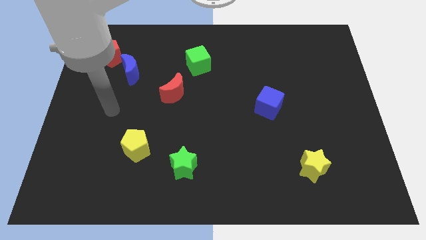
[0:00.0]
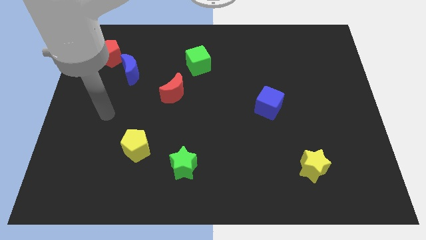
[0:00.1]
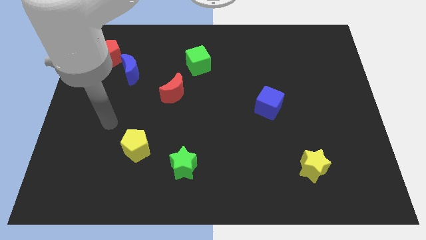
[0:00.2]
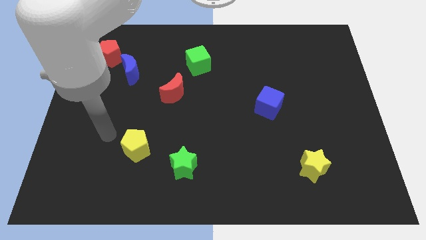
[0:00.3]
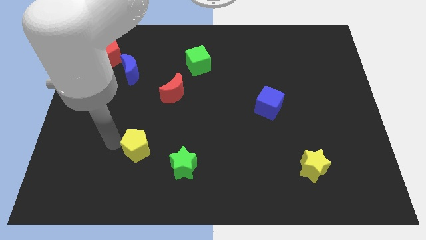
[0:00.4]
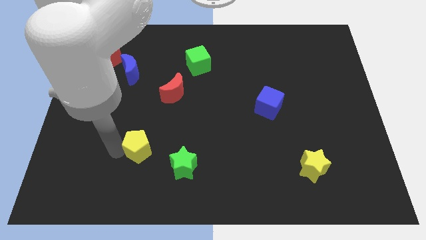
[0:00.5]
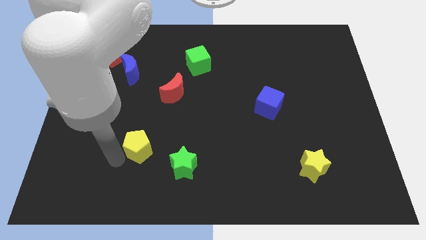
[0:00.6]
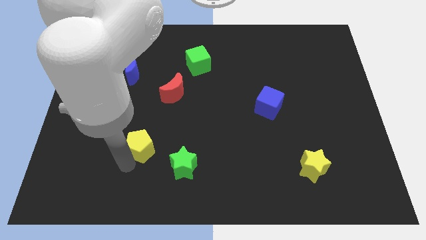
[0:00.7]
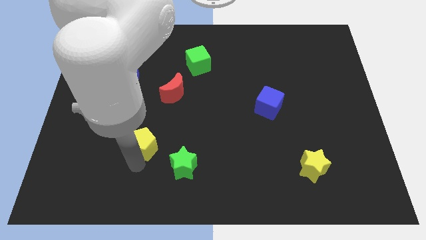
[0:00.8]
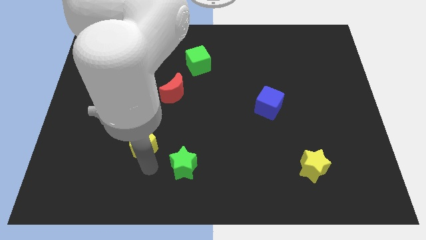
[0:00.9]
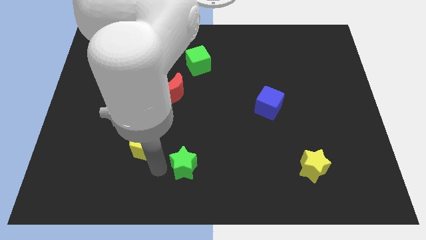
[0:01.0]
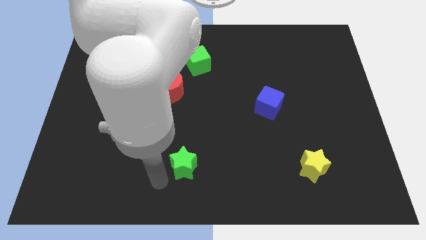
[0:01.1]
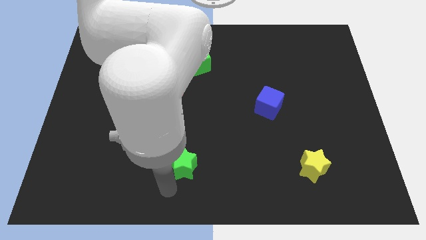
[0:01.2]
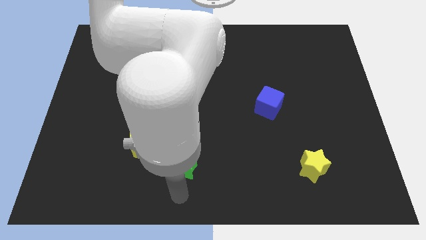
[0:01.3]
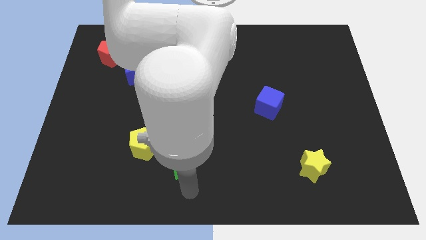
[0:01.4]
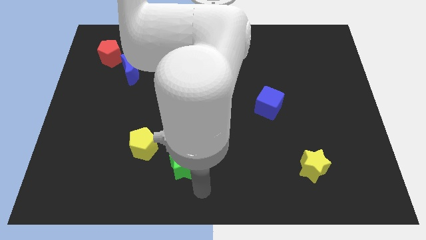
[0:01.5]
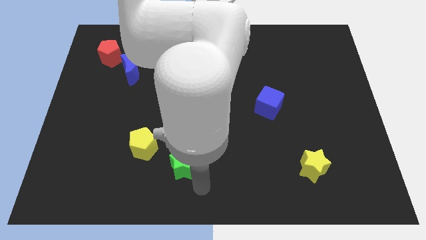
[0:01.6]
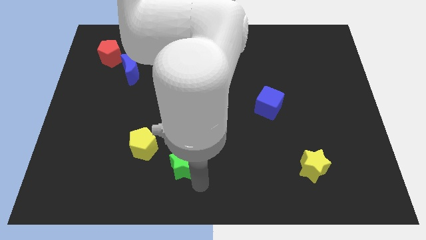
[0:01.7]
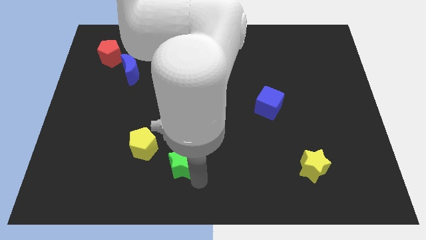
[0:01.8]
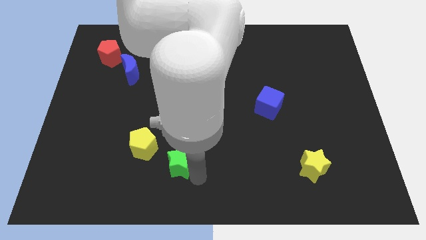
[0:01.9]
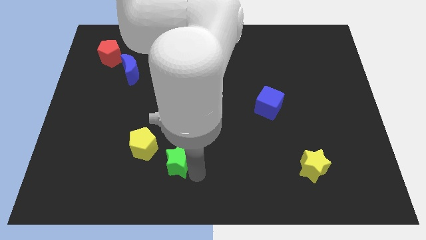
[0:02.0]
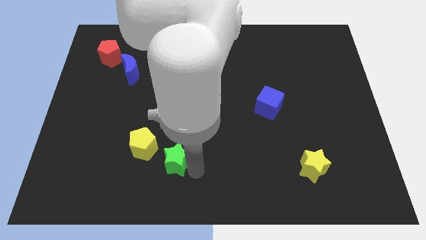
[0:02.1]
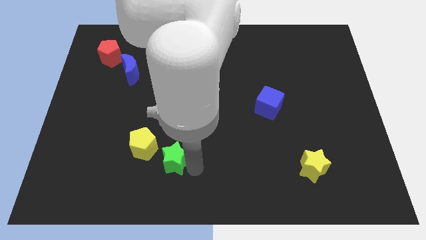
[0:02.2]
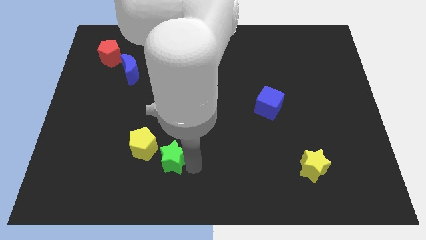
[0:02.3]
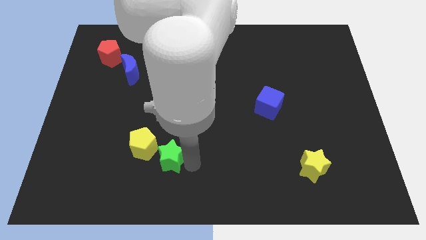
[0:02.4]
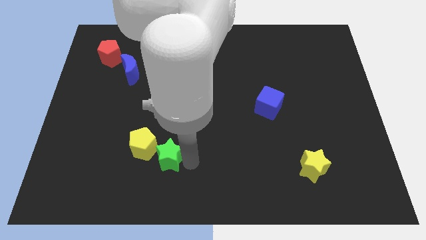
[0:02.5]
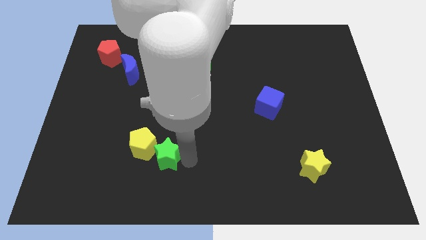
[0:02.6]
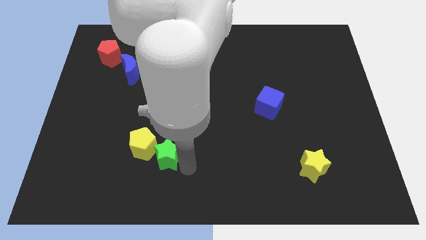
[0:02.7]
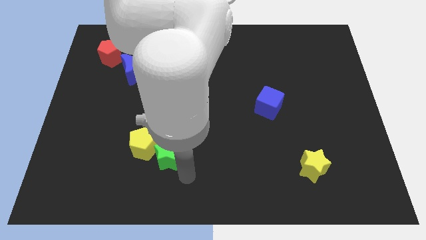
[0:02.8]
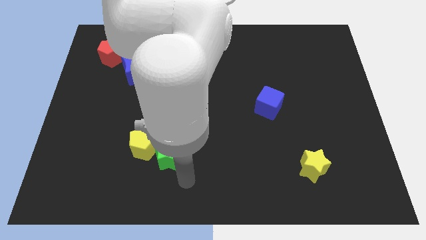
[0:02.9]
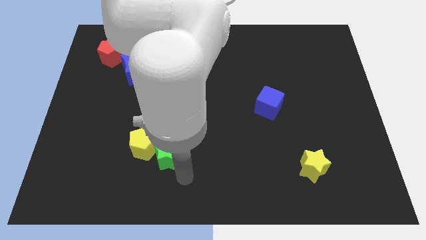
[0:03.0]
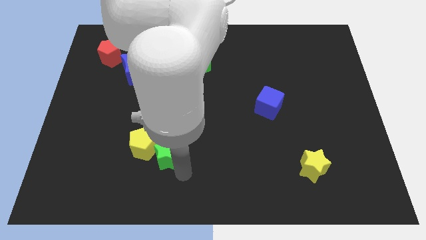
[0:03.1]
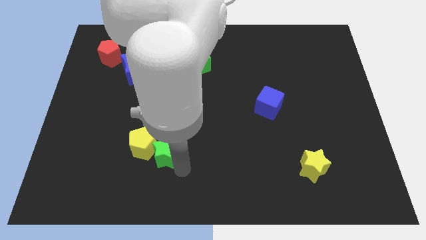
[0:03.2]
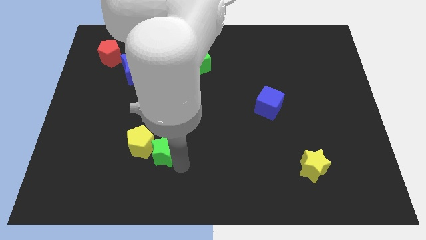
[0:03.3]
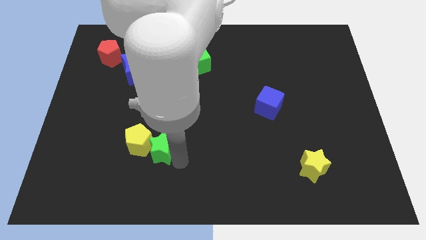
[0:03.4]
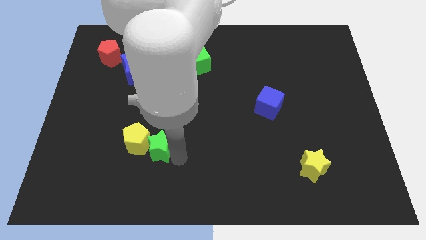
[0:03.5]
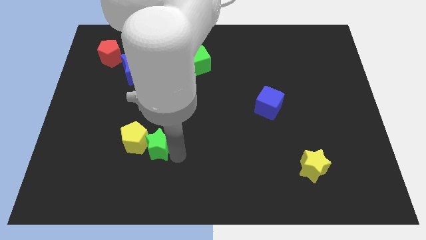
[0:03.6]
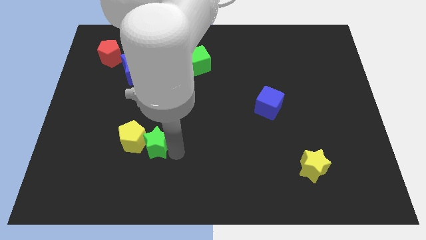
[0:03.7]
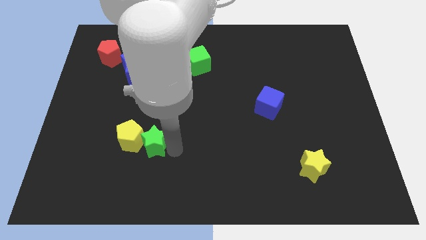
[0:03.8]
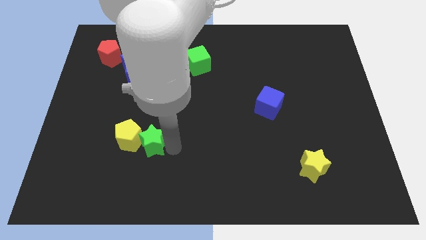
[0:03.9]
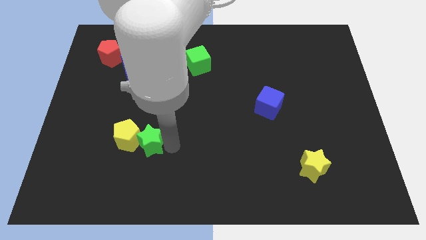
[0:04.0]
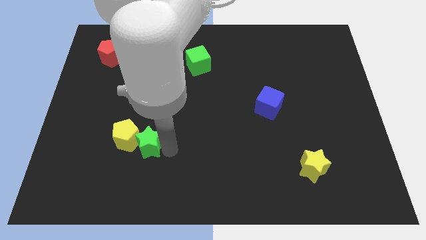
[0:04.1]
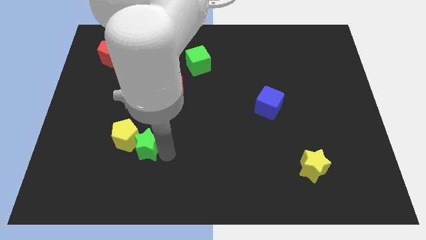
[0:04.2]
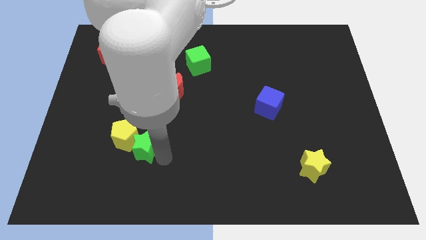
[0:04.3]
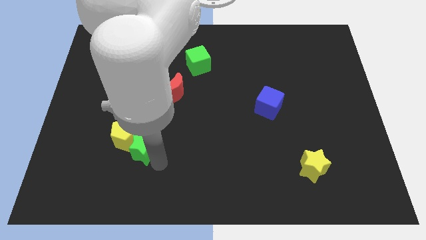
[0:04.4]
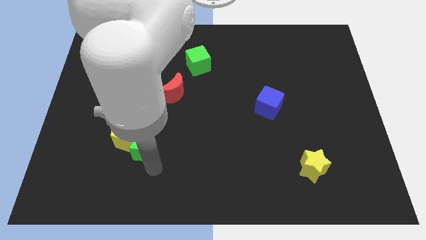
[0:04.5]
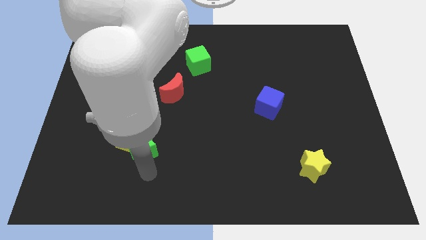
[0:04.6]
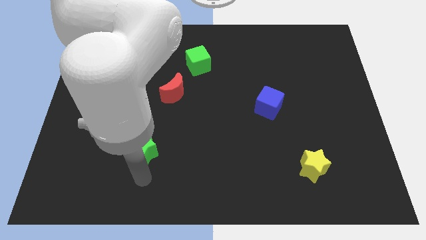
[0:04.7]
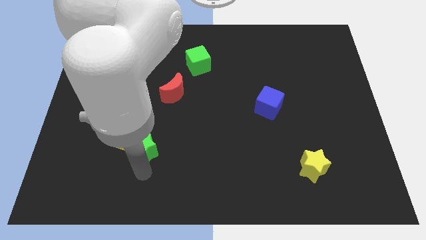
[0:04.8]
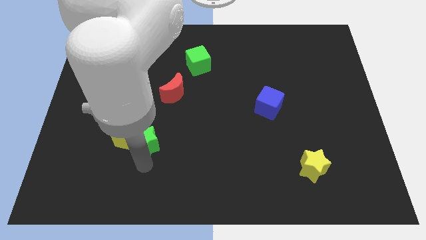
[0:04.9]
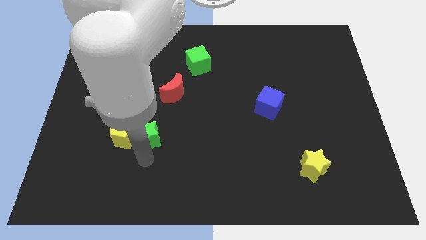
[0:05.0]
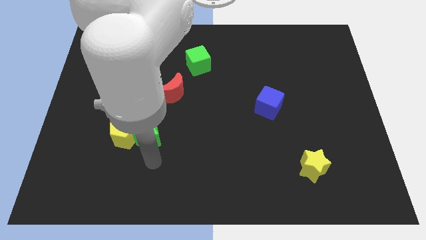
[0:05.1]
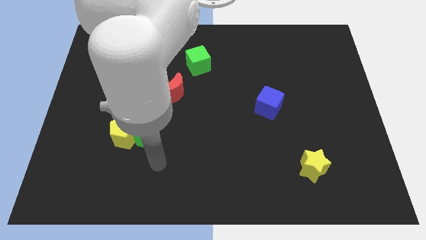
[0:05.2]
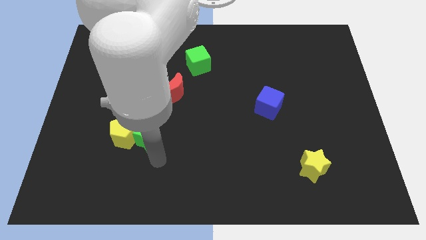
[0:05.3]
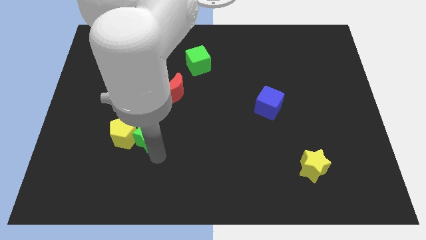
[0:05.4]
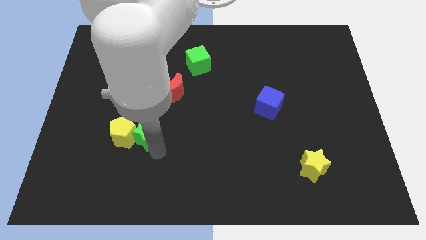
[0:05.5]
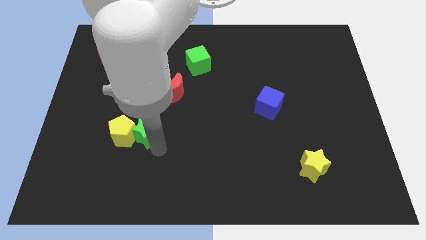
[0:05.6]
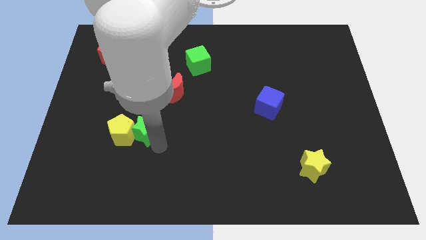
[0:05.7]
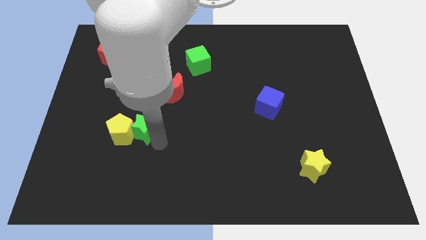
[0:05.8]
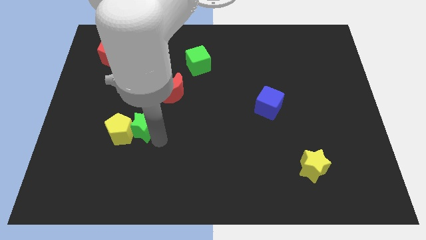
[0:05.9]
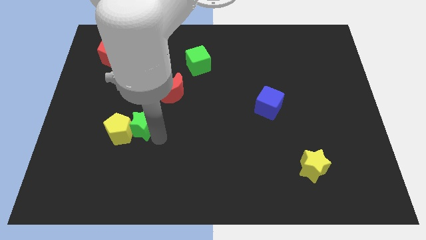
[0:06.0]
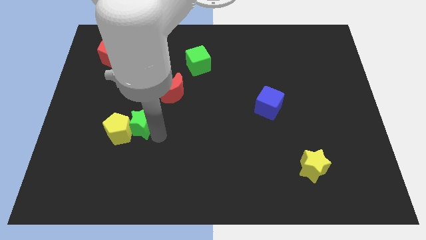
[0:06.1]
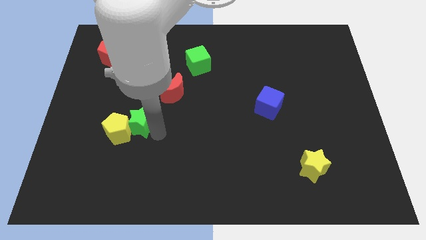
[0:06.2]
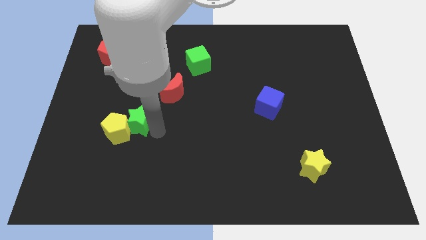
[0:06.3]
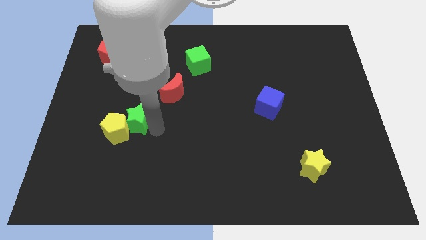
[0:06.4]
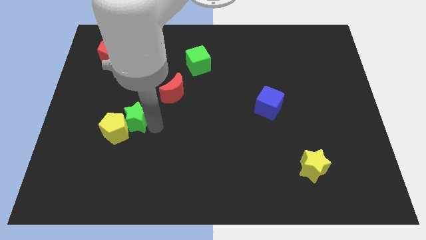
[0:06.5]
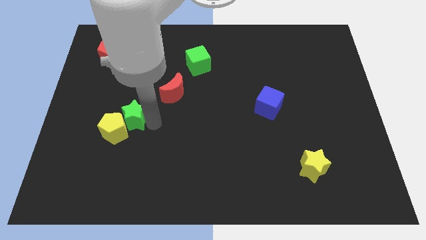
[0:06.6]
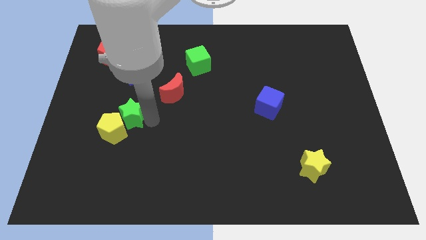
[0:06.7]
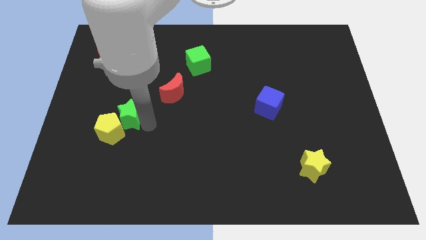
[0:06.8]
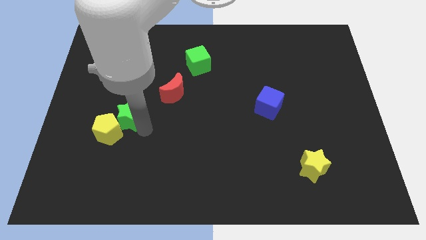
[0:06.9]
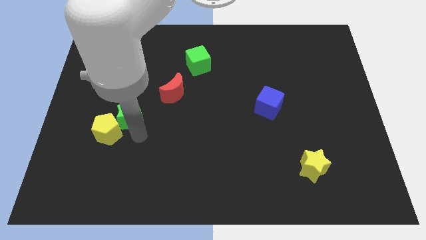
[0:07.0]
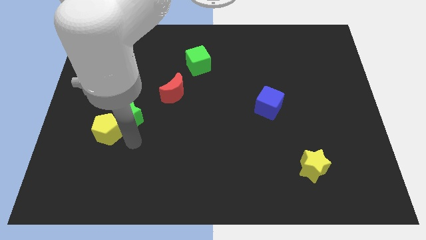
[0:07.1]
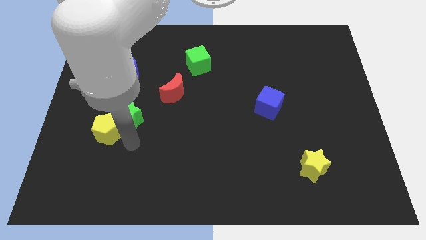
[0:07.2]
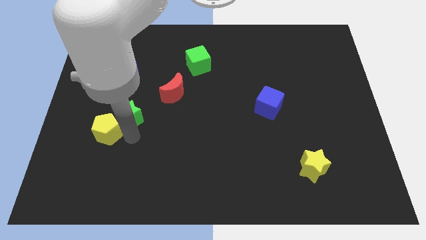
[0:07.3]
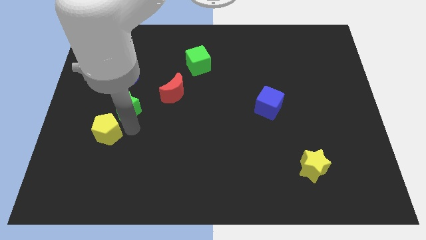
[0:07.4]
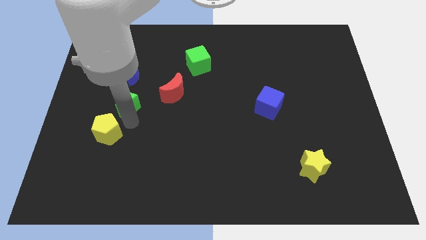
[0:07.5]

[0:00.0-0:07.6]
move the green star to the left of the red moon
